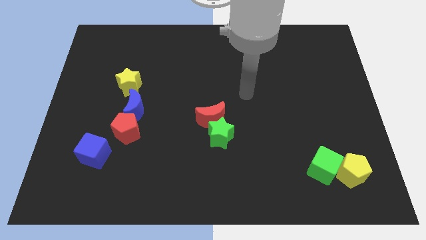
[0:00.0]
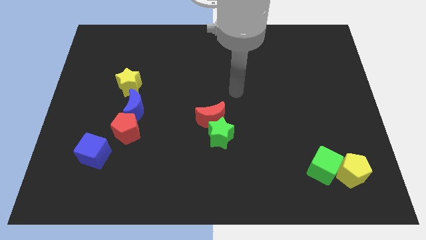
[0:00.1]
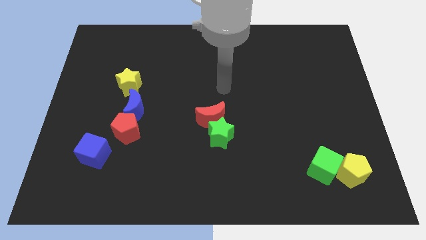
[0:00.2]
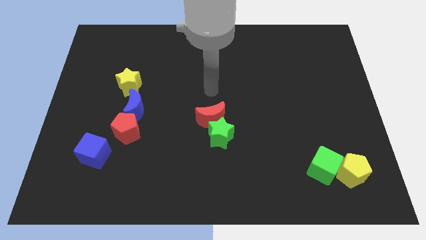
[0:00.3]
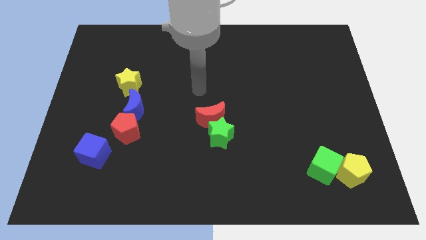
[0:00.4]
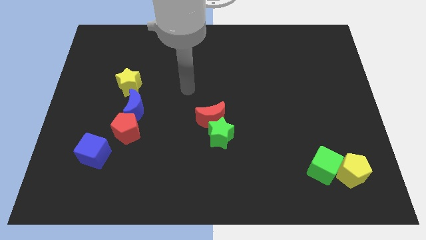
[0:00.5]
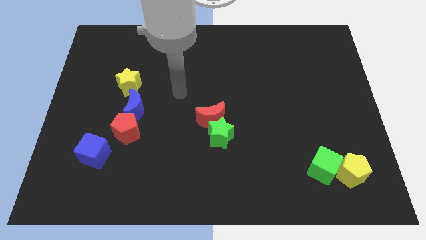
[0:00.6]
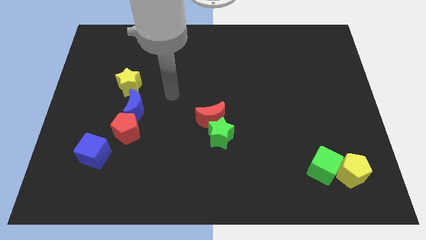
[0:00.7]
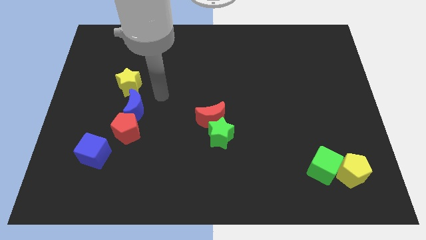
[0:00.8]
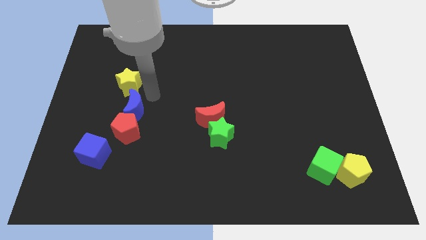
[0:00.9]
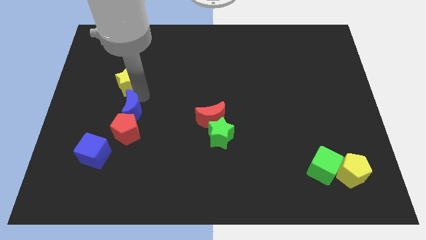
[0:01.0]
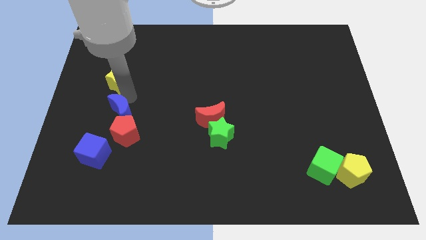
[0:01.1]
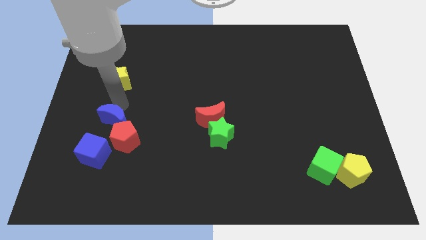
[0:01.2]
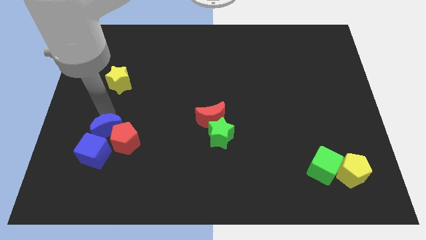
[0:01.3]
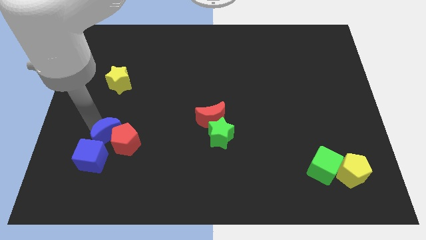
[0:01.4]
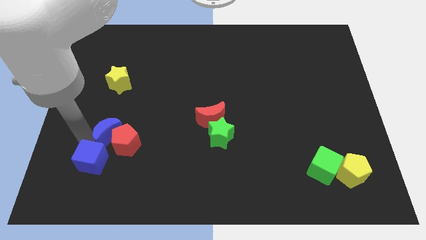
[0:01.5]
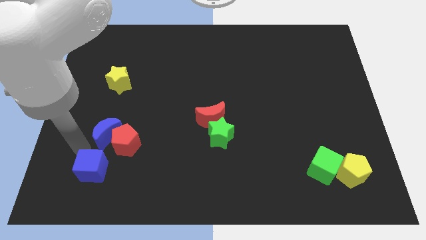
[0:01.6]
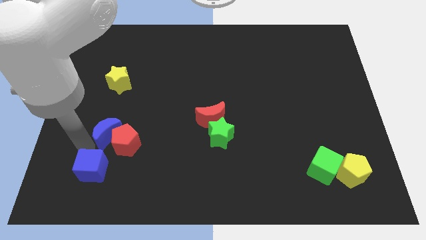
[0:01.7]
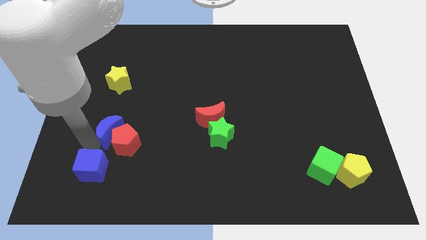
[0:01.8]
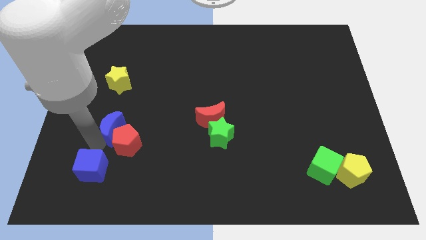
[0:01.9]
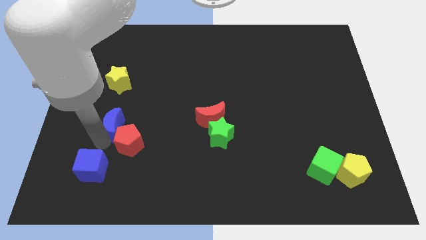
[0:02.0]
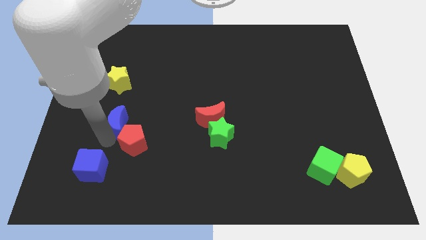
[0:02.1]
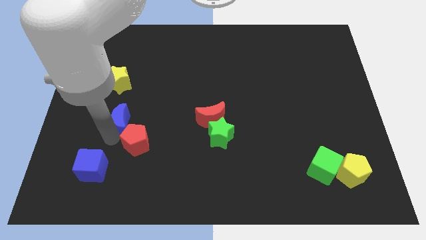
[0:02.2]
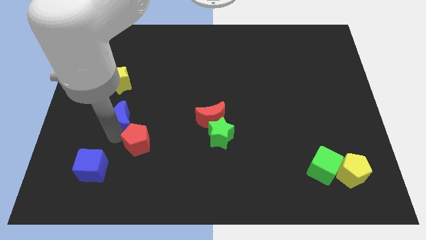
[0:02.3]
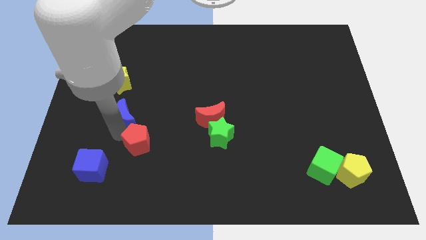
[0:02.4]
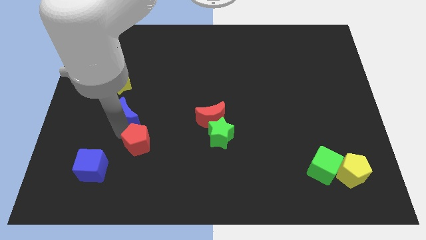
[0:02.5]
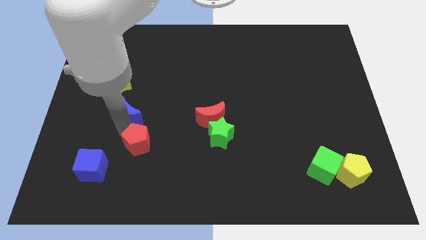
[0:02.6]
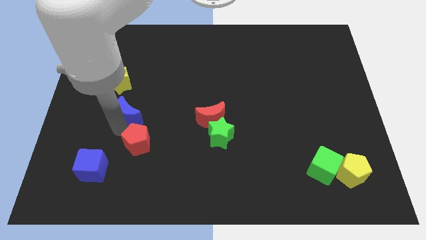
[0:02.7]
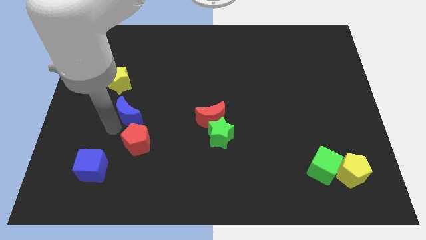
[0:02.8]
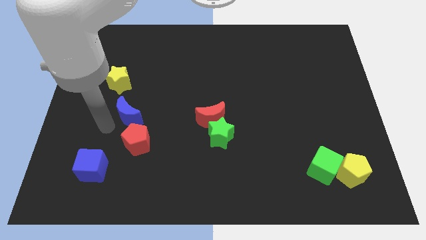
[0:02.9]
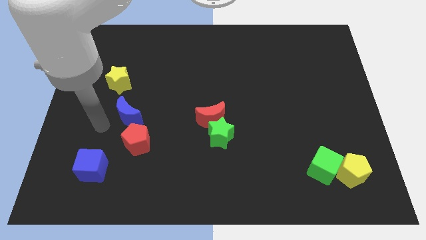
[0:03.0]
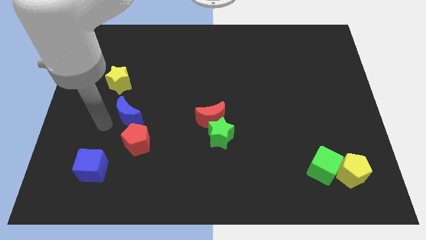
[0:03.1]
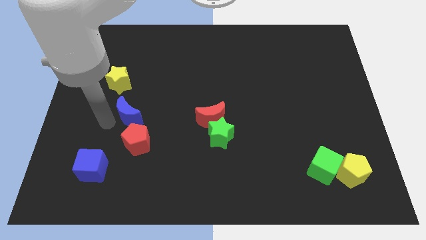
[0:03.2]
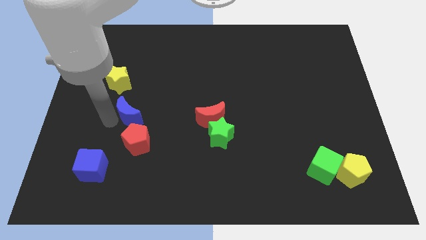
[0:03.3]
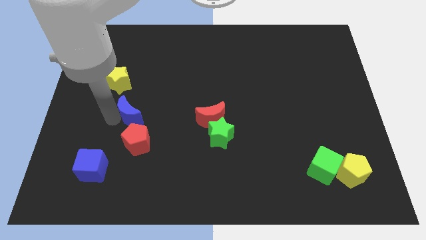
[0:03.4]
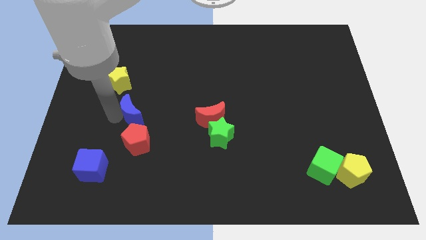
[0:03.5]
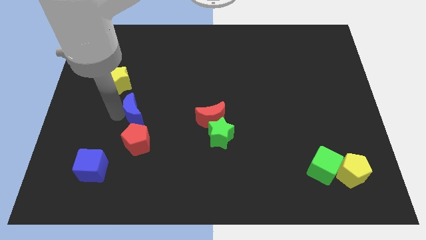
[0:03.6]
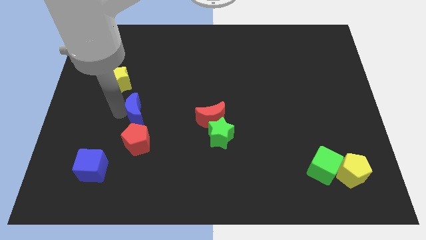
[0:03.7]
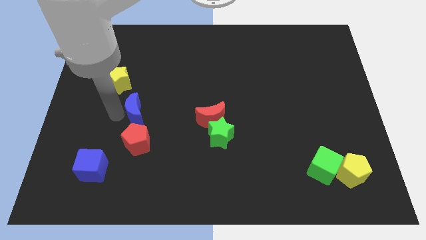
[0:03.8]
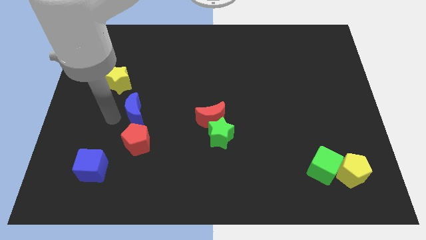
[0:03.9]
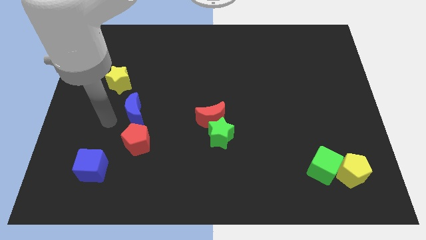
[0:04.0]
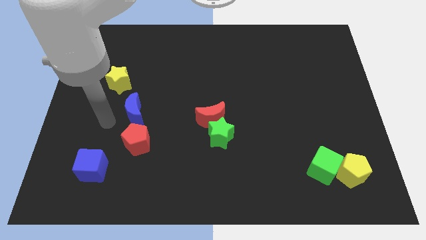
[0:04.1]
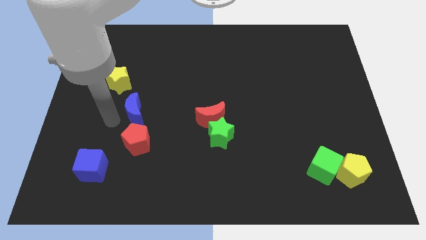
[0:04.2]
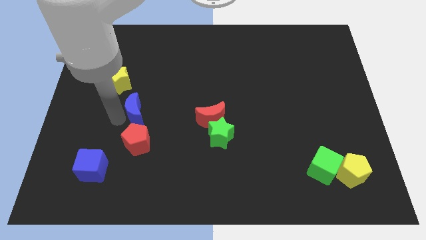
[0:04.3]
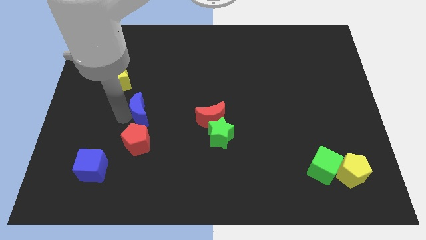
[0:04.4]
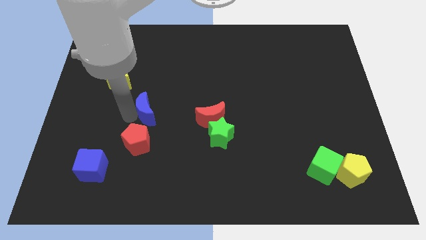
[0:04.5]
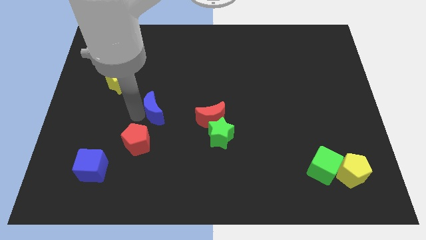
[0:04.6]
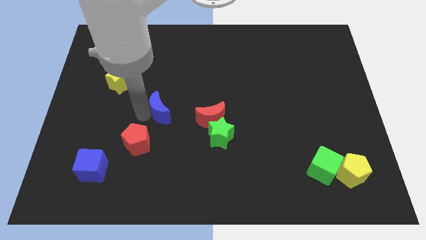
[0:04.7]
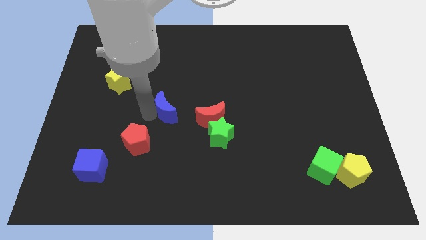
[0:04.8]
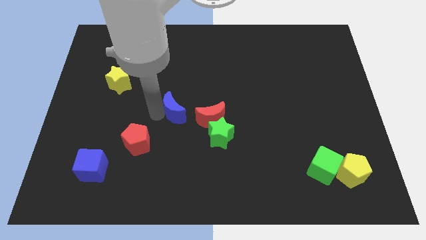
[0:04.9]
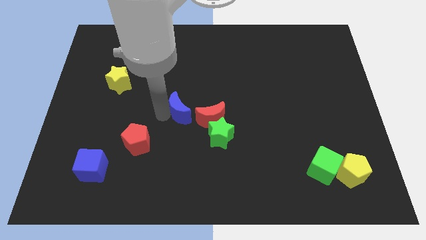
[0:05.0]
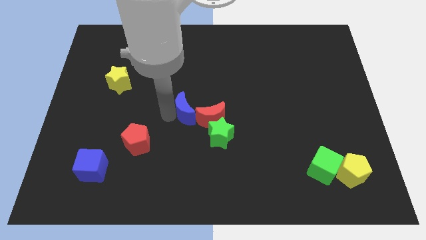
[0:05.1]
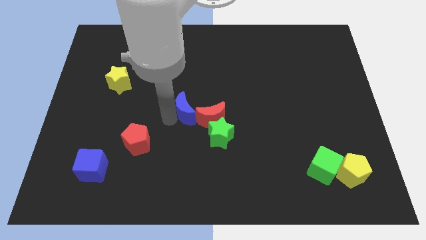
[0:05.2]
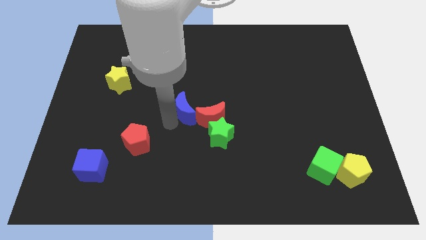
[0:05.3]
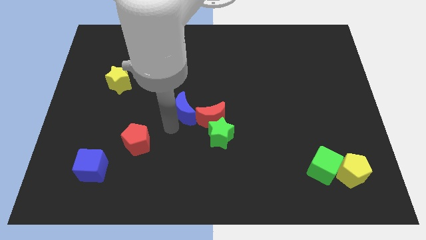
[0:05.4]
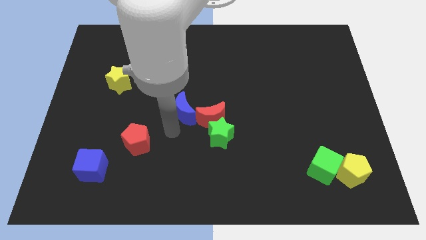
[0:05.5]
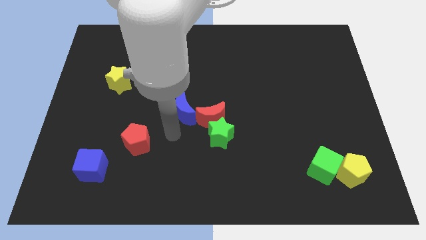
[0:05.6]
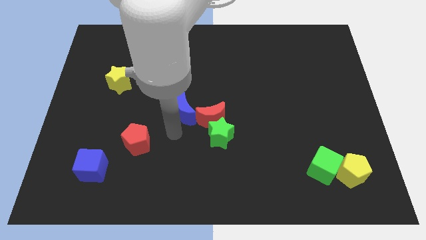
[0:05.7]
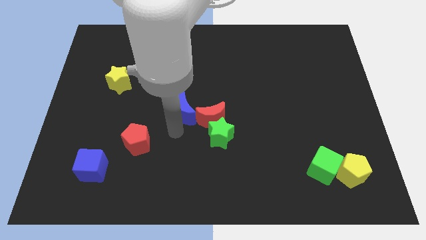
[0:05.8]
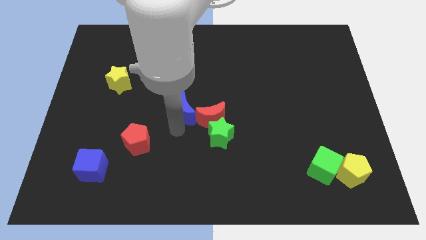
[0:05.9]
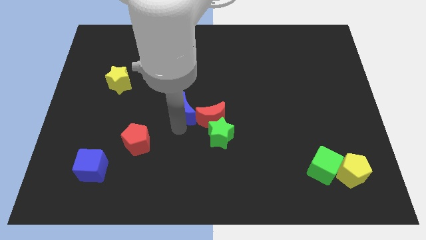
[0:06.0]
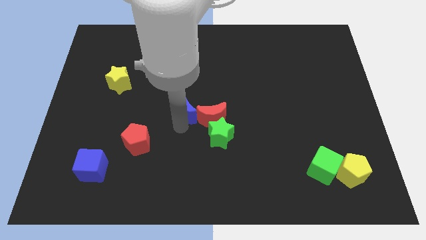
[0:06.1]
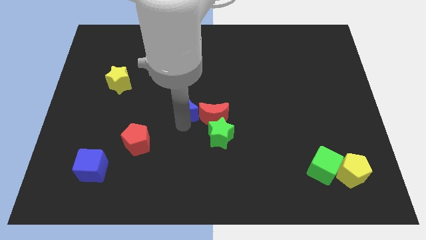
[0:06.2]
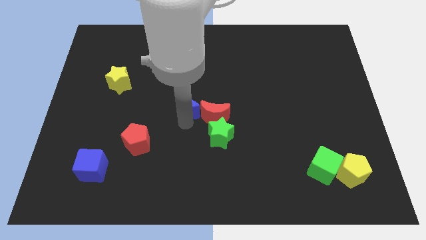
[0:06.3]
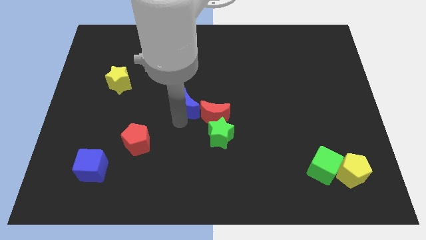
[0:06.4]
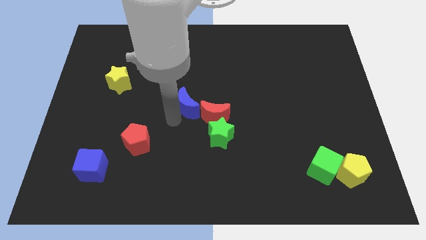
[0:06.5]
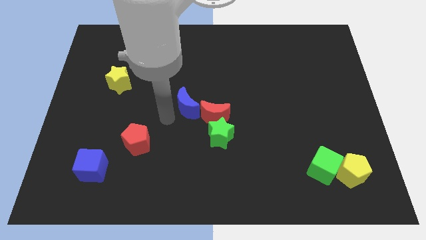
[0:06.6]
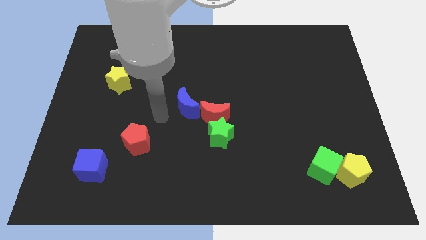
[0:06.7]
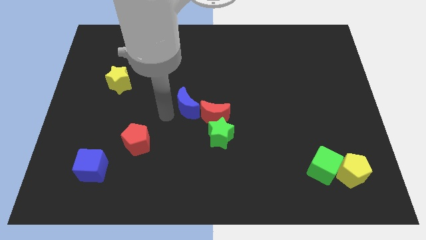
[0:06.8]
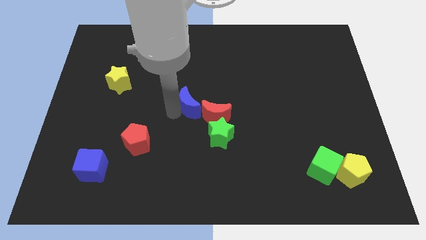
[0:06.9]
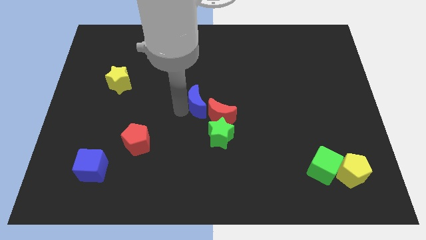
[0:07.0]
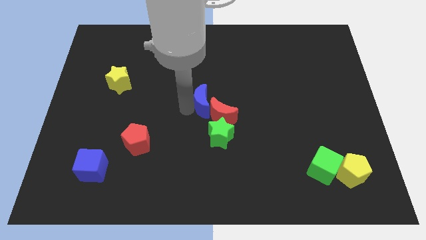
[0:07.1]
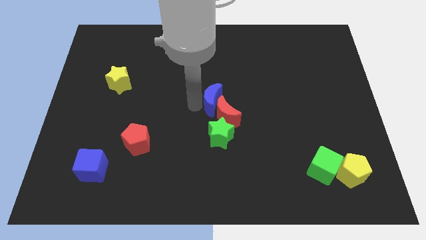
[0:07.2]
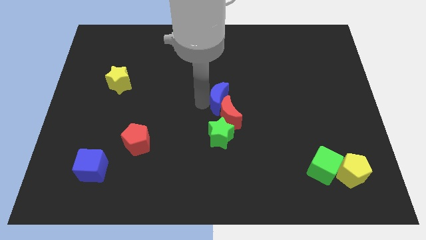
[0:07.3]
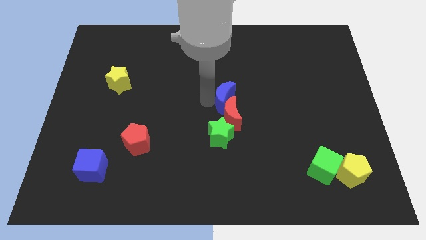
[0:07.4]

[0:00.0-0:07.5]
slide the blue moon right
